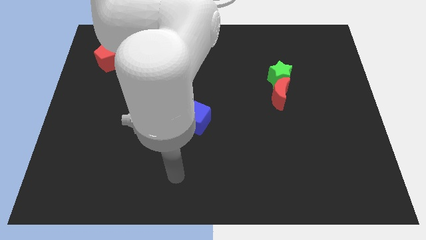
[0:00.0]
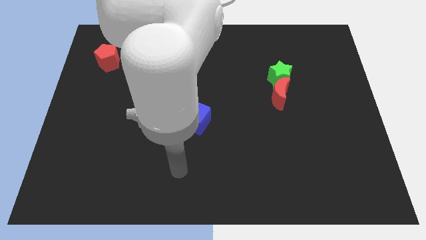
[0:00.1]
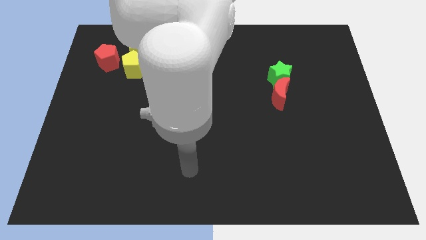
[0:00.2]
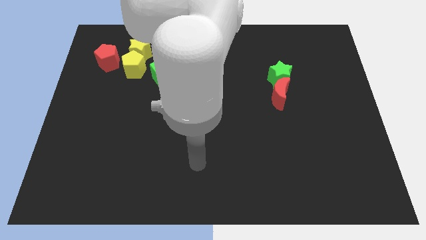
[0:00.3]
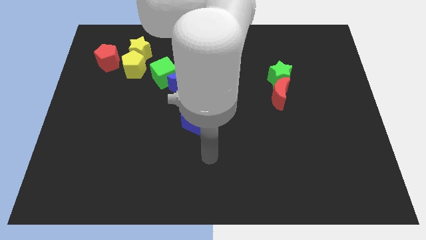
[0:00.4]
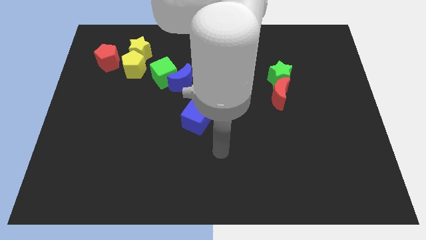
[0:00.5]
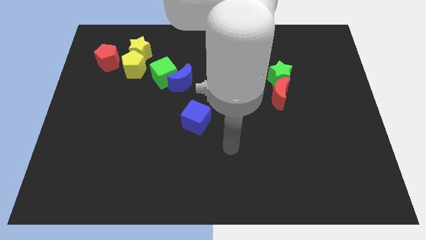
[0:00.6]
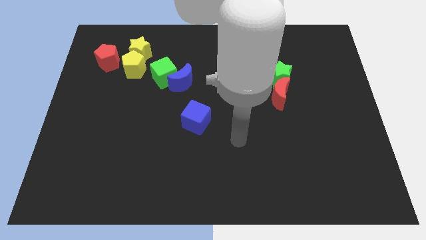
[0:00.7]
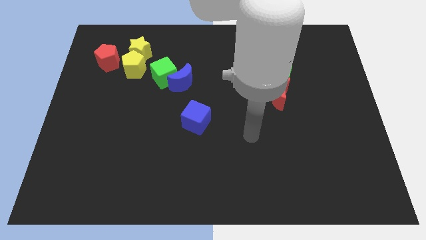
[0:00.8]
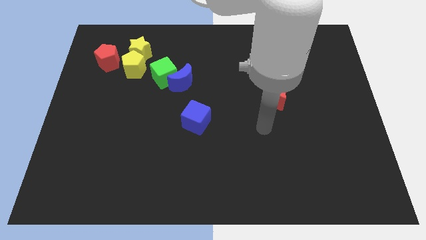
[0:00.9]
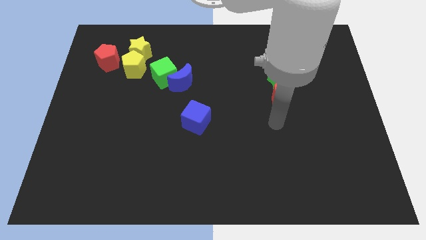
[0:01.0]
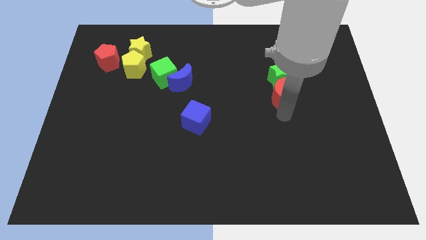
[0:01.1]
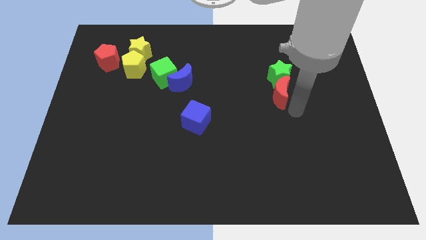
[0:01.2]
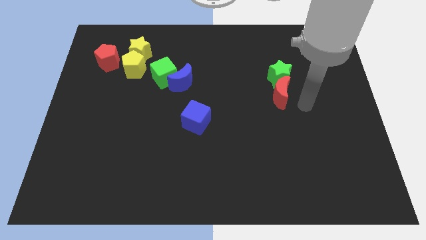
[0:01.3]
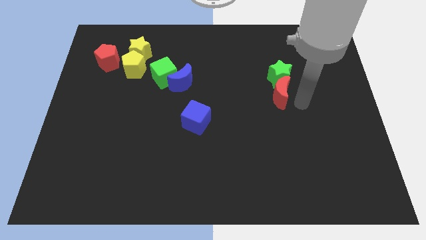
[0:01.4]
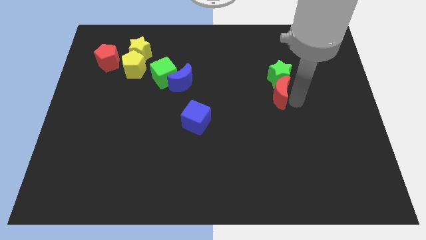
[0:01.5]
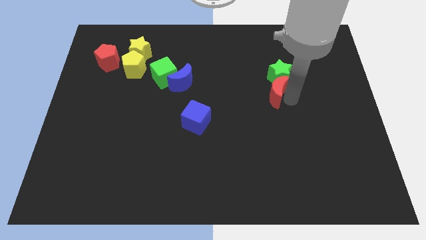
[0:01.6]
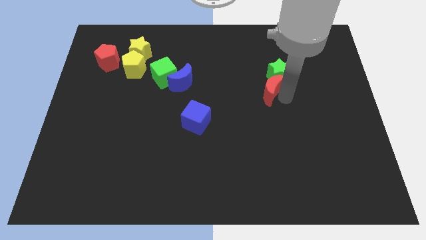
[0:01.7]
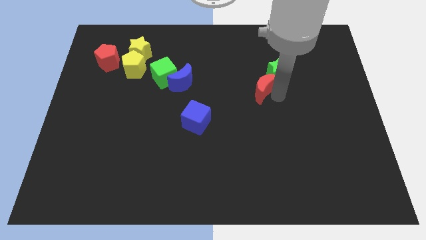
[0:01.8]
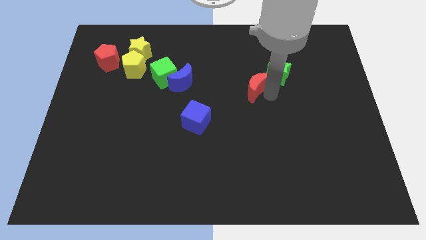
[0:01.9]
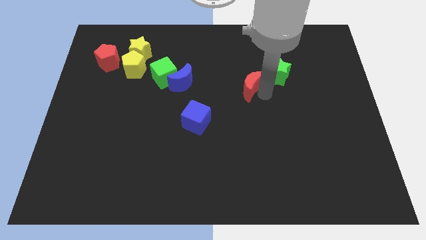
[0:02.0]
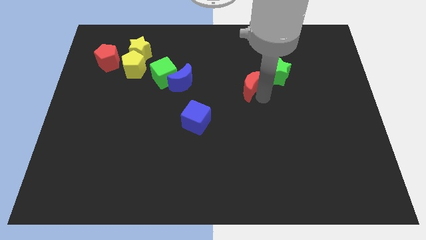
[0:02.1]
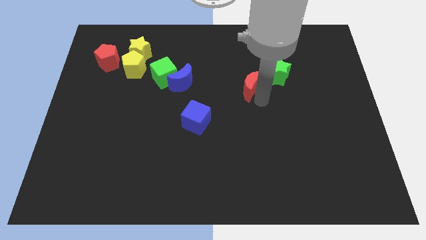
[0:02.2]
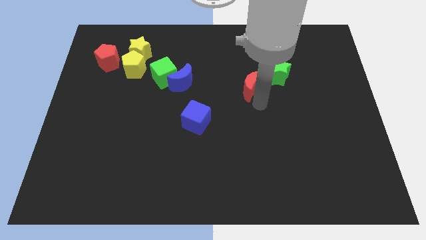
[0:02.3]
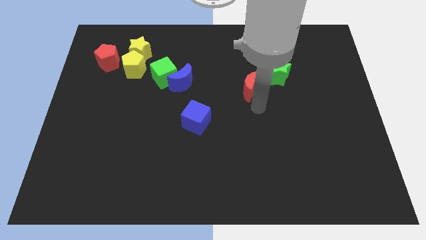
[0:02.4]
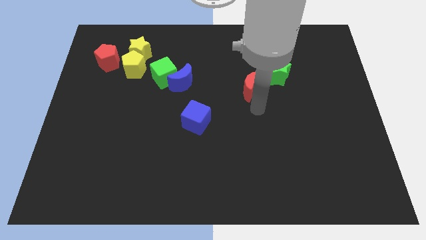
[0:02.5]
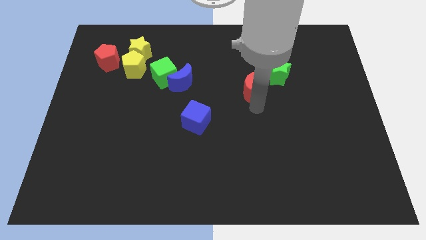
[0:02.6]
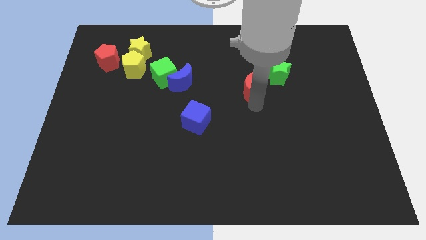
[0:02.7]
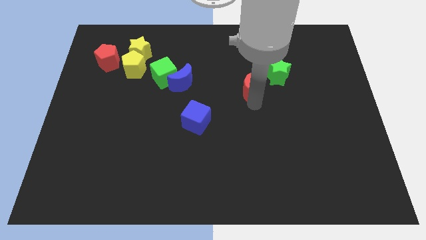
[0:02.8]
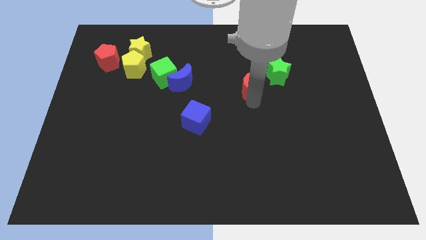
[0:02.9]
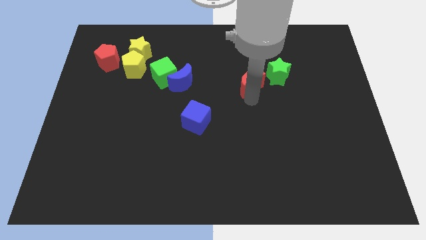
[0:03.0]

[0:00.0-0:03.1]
push the red moon a bit upwards and then to the left

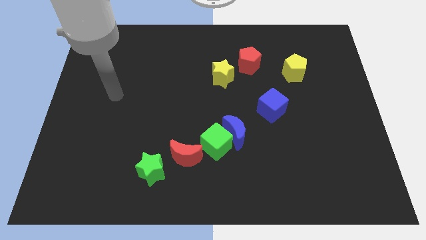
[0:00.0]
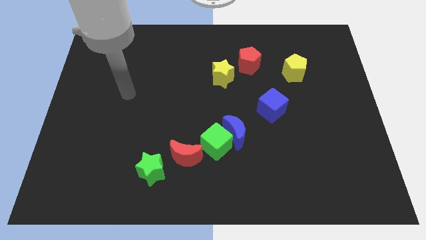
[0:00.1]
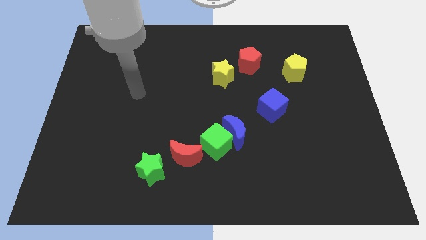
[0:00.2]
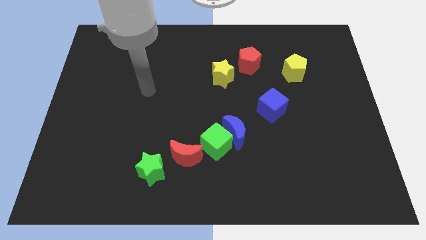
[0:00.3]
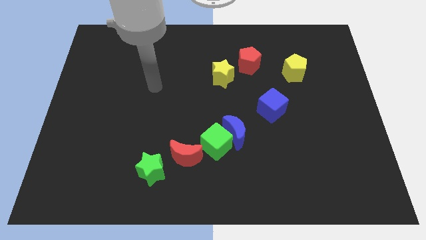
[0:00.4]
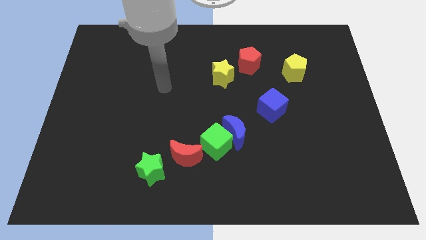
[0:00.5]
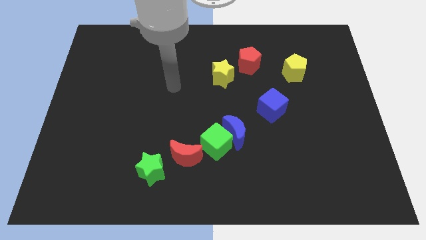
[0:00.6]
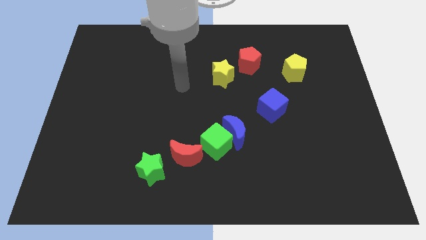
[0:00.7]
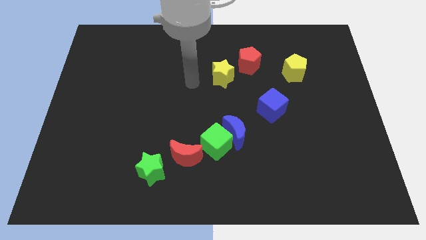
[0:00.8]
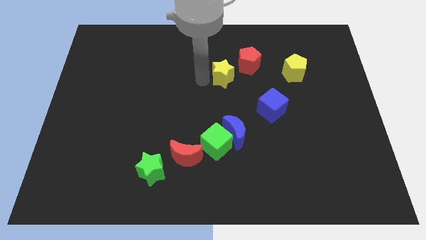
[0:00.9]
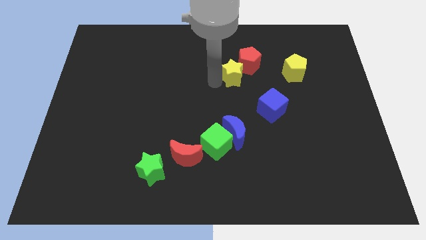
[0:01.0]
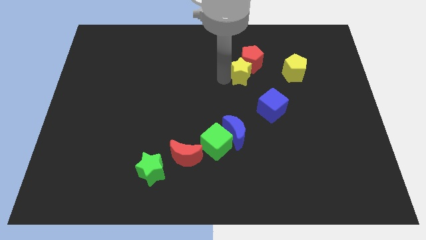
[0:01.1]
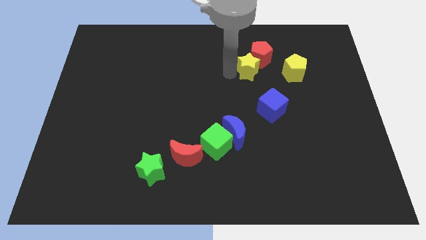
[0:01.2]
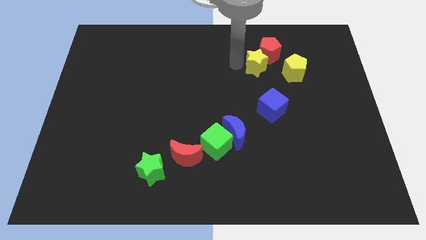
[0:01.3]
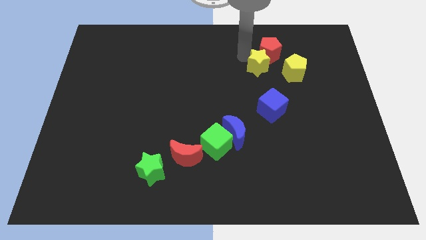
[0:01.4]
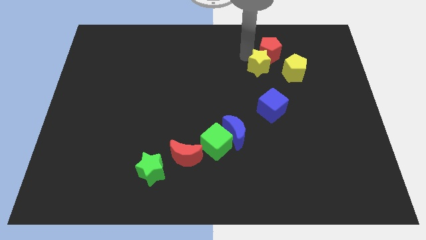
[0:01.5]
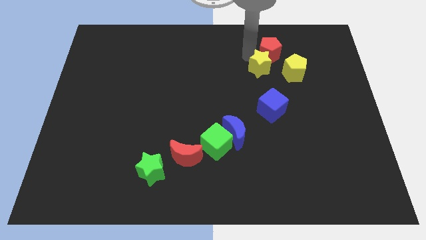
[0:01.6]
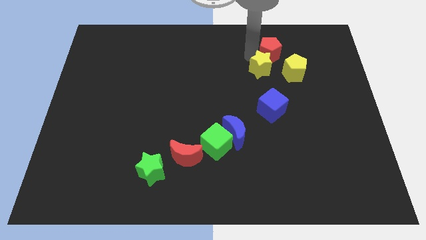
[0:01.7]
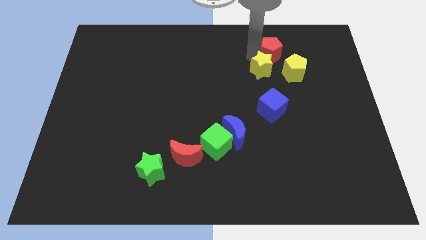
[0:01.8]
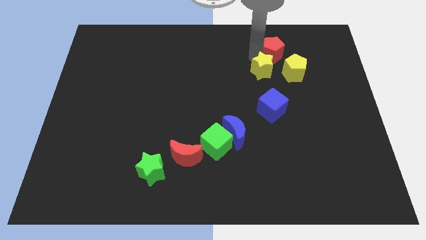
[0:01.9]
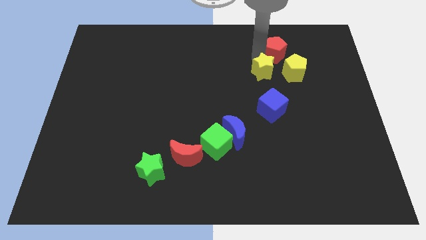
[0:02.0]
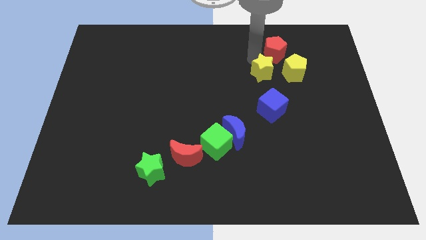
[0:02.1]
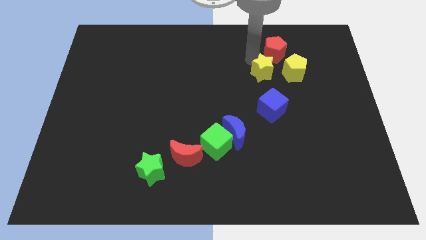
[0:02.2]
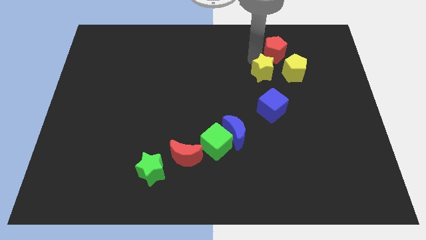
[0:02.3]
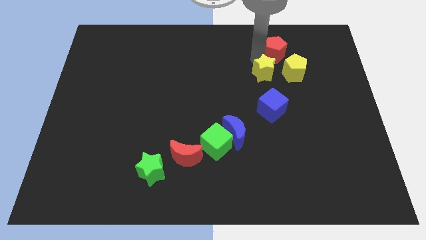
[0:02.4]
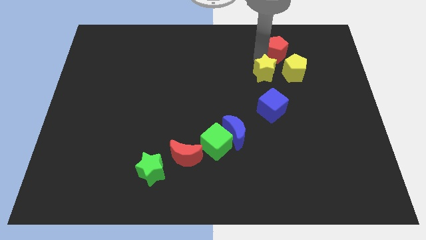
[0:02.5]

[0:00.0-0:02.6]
slide the red pentagon right somewhat

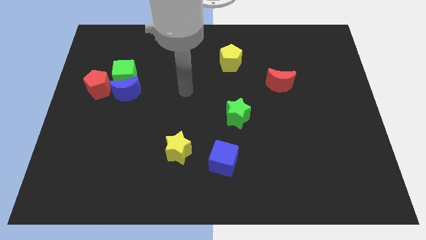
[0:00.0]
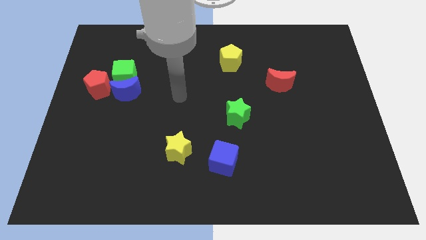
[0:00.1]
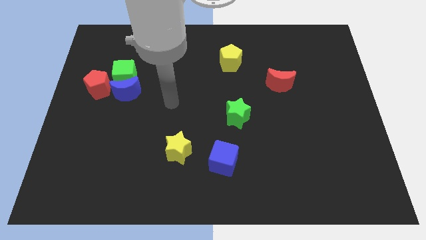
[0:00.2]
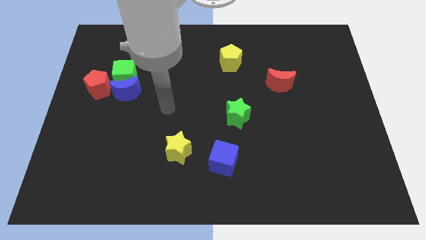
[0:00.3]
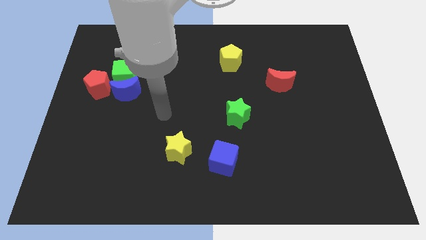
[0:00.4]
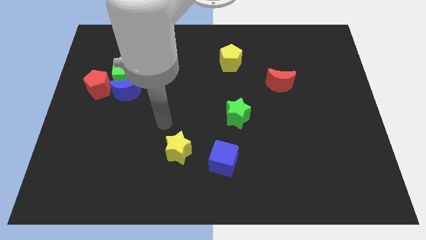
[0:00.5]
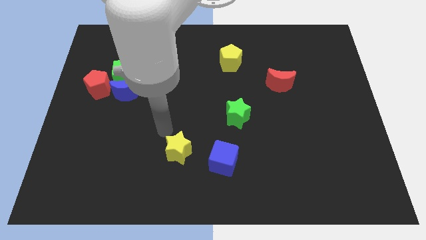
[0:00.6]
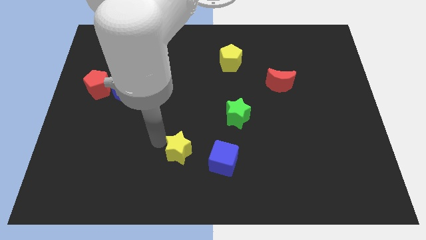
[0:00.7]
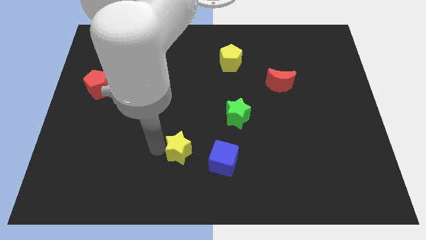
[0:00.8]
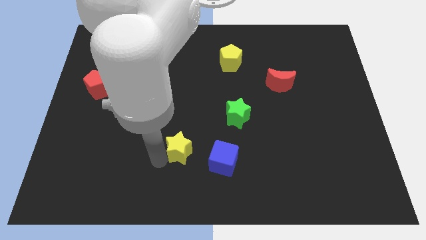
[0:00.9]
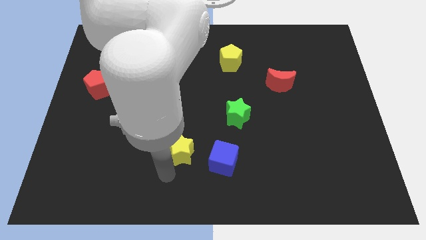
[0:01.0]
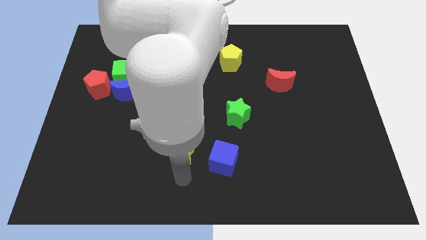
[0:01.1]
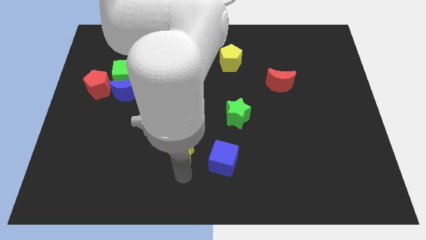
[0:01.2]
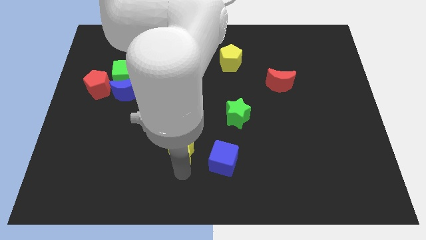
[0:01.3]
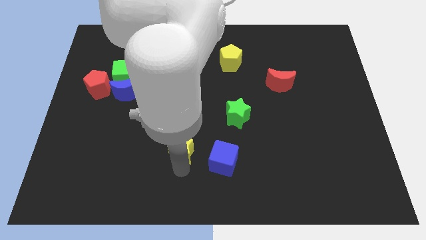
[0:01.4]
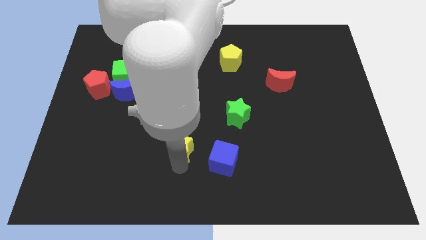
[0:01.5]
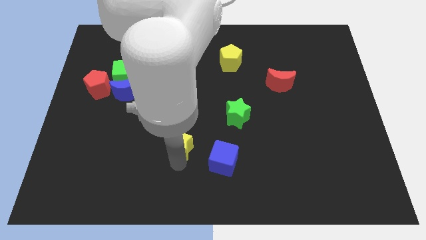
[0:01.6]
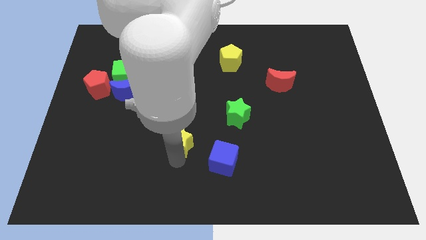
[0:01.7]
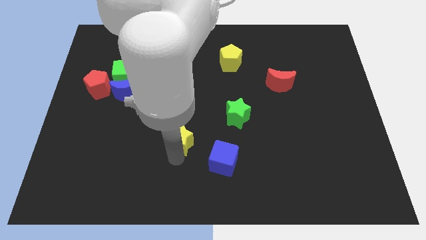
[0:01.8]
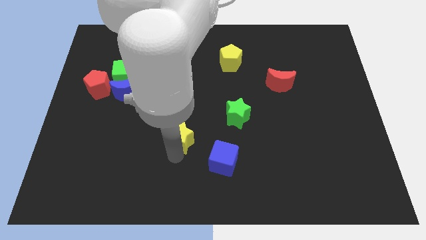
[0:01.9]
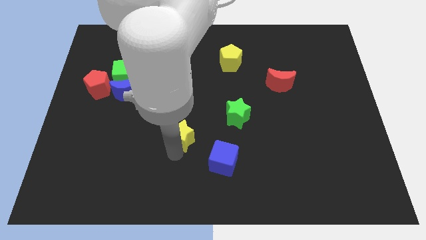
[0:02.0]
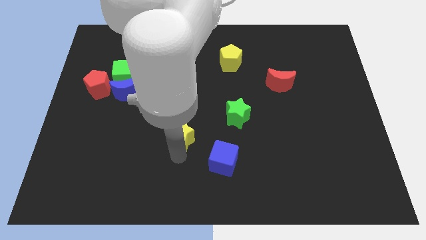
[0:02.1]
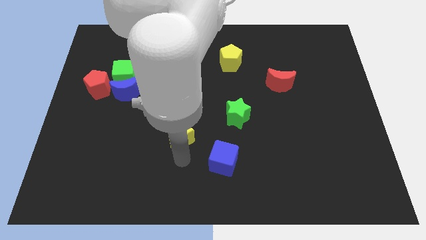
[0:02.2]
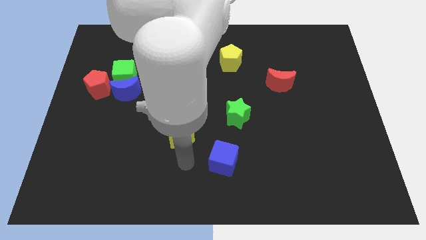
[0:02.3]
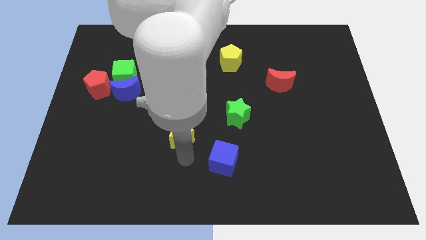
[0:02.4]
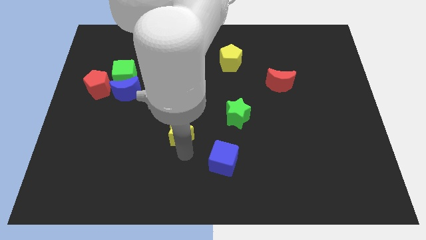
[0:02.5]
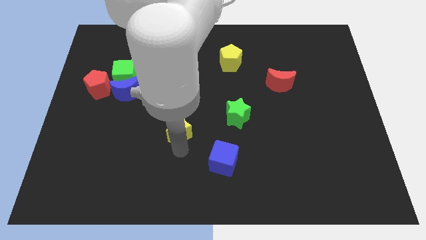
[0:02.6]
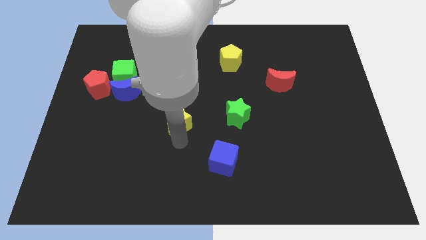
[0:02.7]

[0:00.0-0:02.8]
slide the yellow star somewhat up
